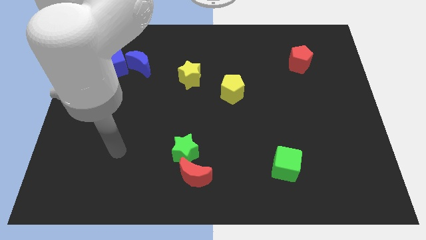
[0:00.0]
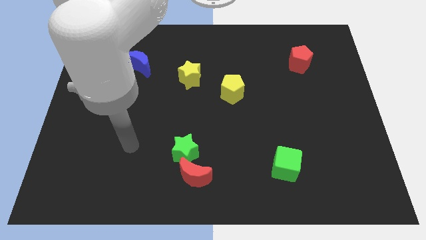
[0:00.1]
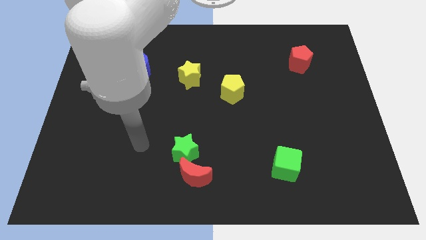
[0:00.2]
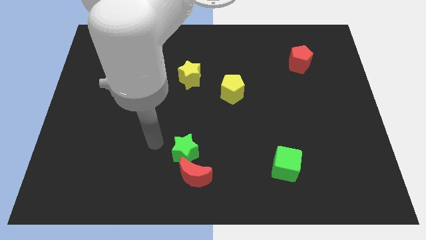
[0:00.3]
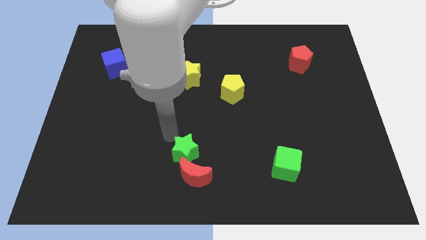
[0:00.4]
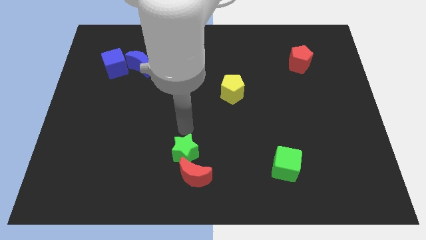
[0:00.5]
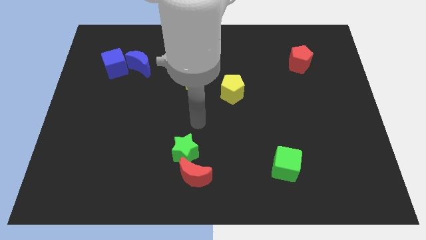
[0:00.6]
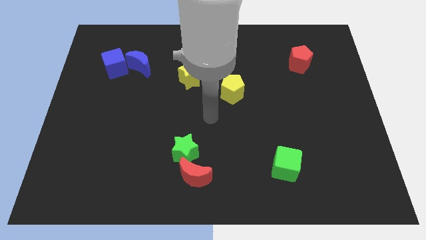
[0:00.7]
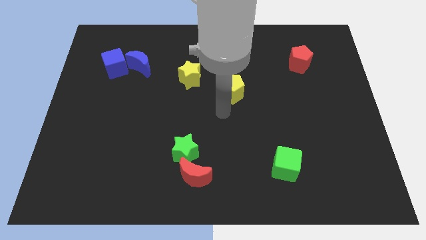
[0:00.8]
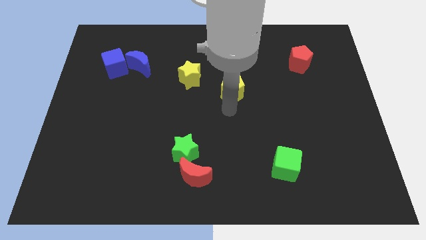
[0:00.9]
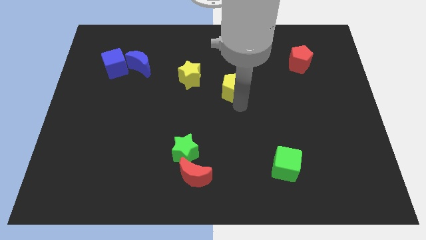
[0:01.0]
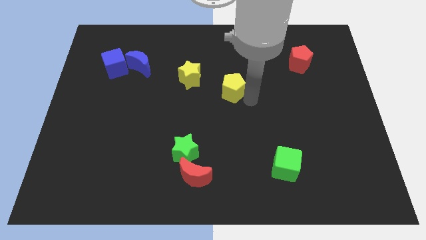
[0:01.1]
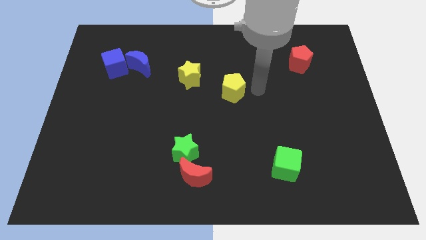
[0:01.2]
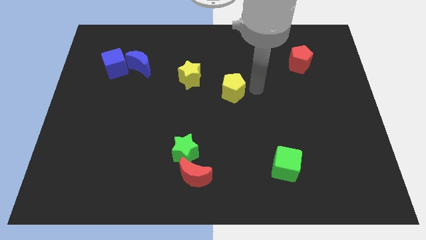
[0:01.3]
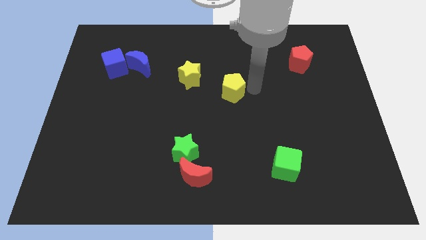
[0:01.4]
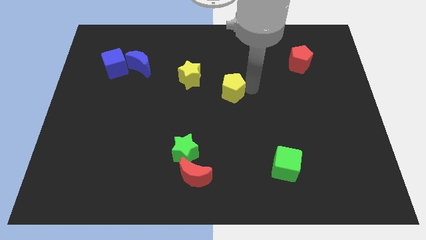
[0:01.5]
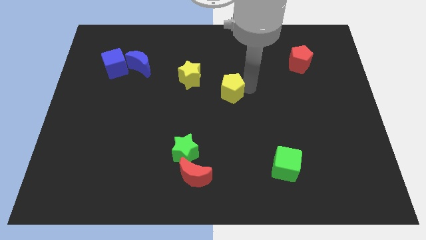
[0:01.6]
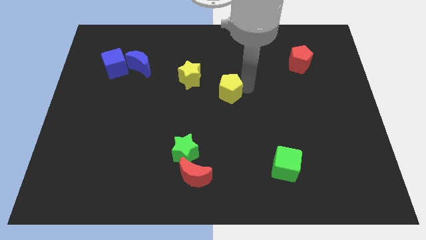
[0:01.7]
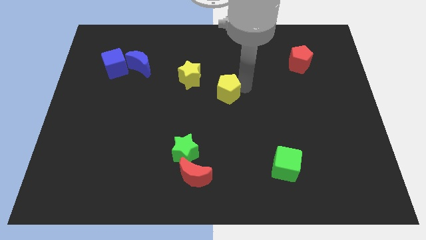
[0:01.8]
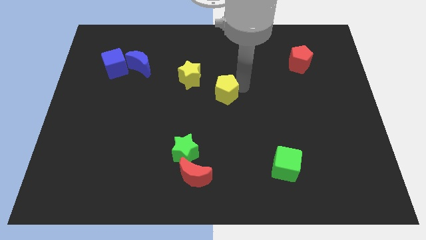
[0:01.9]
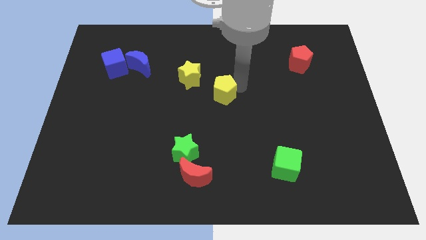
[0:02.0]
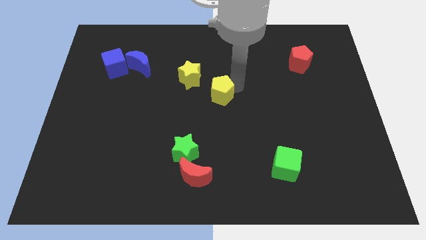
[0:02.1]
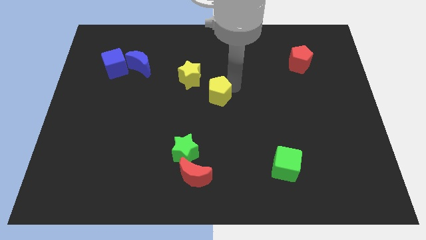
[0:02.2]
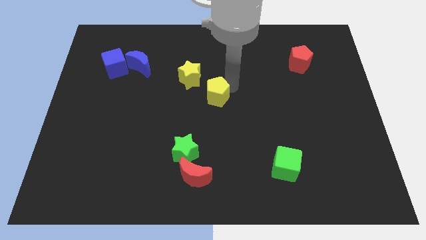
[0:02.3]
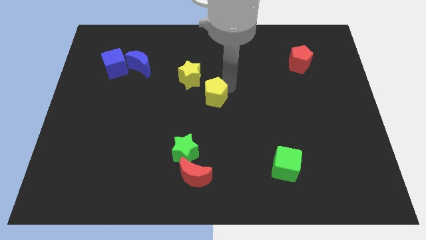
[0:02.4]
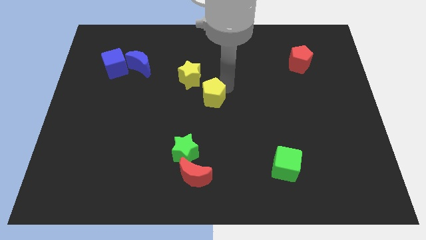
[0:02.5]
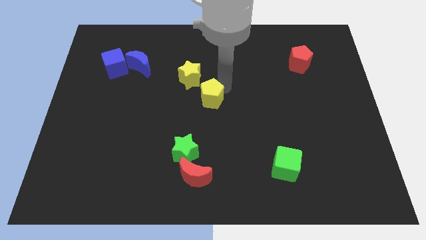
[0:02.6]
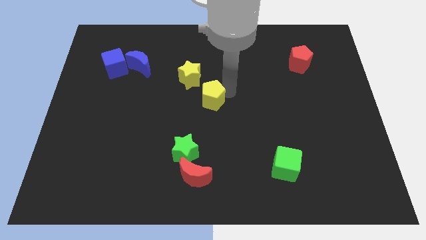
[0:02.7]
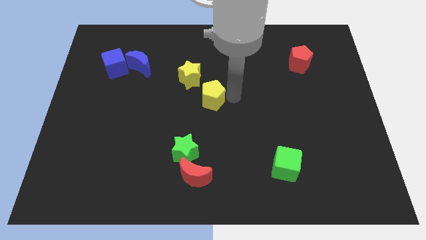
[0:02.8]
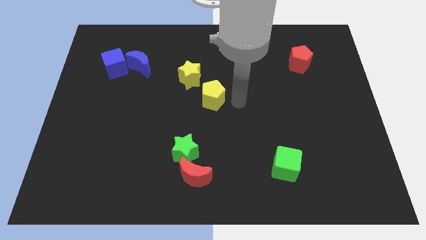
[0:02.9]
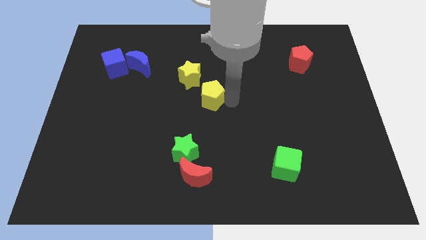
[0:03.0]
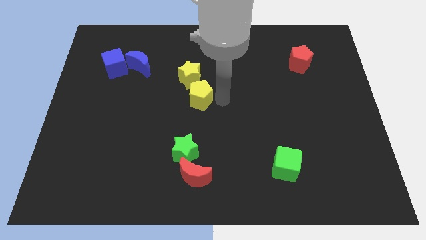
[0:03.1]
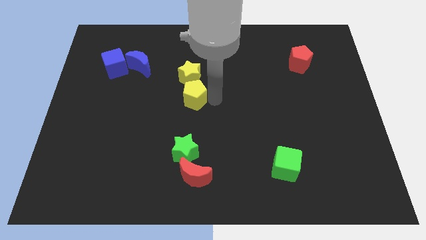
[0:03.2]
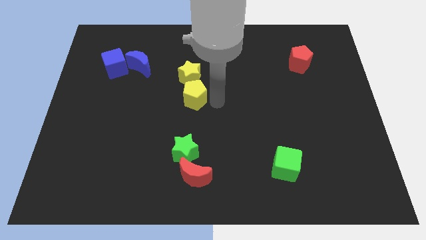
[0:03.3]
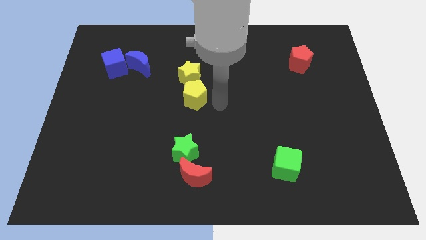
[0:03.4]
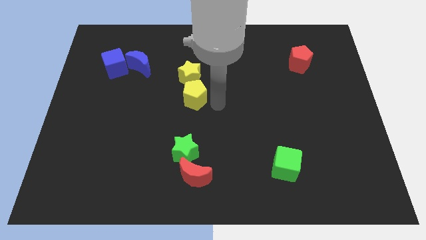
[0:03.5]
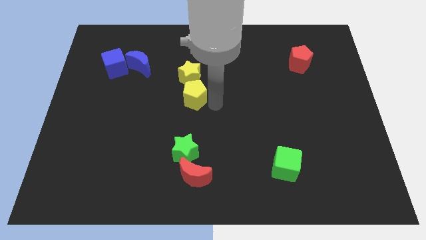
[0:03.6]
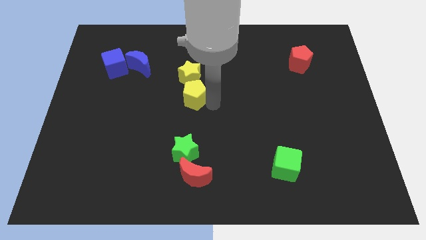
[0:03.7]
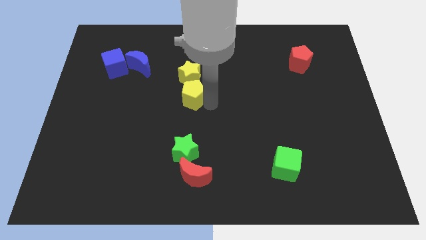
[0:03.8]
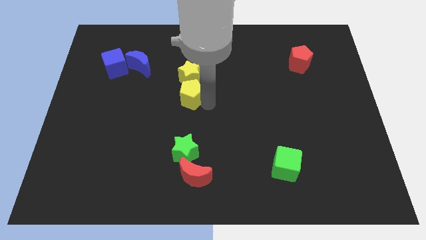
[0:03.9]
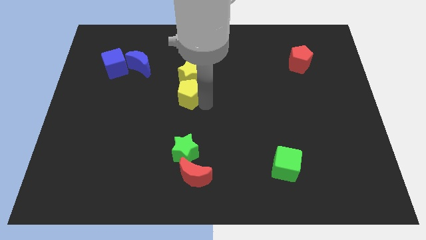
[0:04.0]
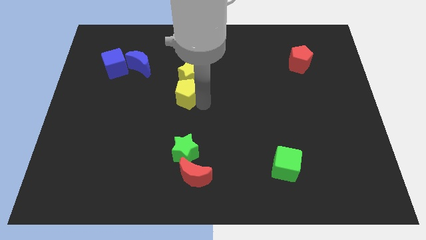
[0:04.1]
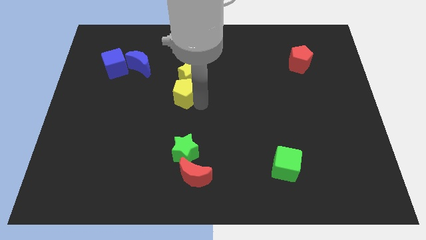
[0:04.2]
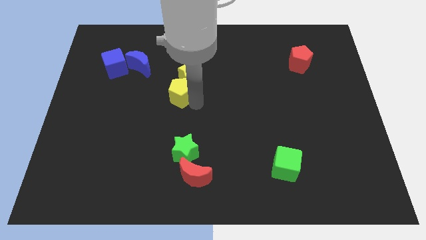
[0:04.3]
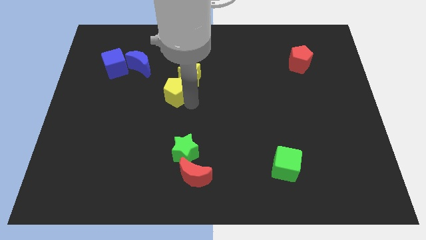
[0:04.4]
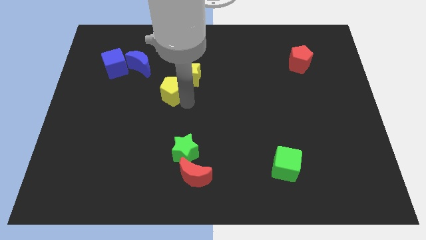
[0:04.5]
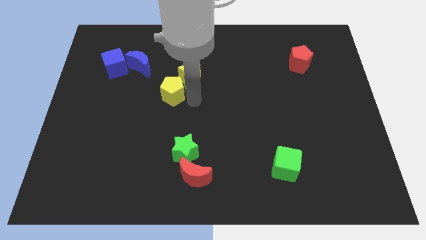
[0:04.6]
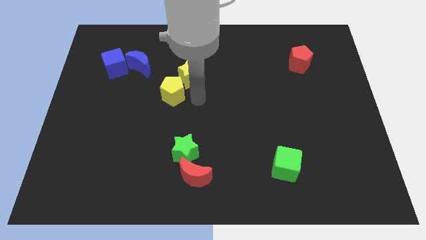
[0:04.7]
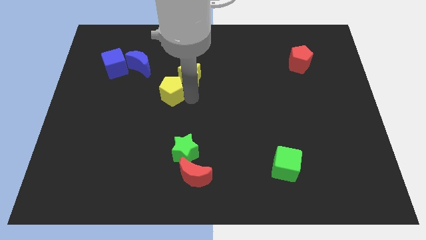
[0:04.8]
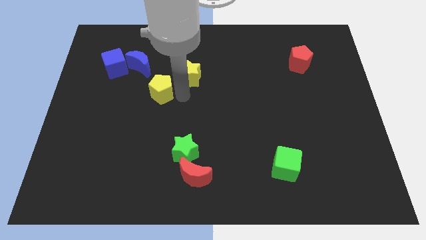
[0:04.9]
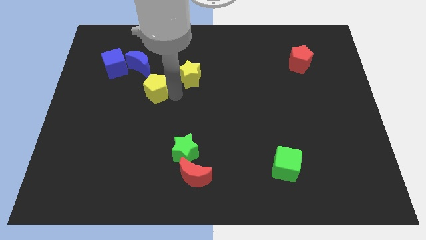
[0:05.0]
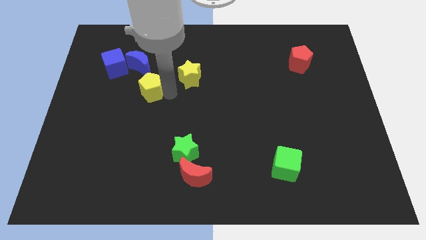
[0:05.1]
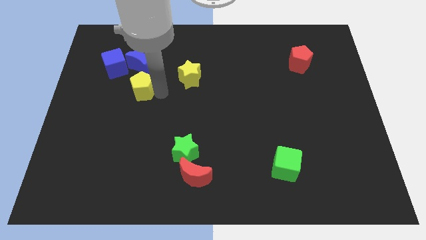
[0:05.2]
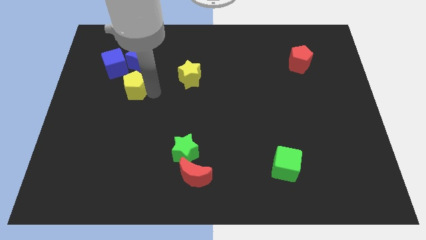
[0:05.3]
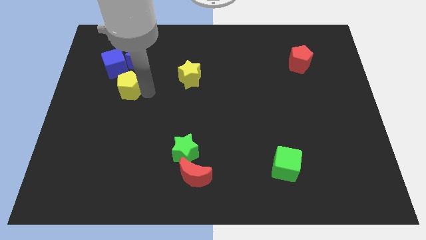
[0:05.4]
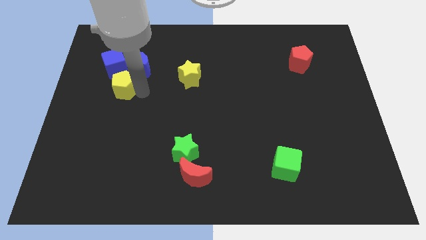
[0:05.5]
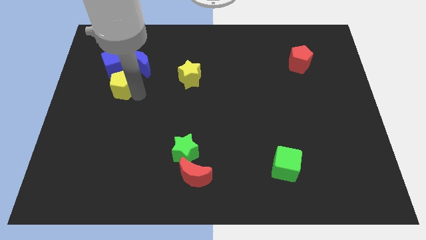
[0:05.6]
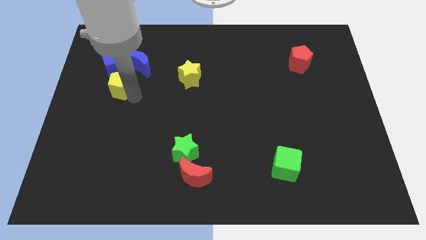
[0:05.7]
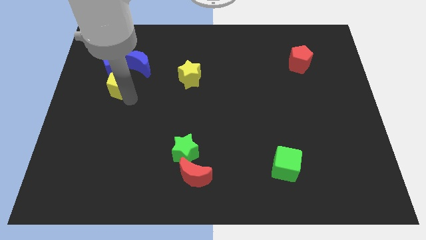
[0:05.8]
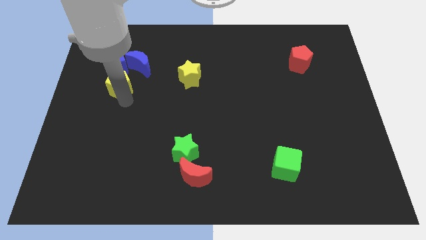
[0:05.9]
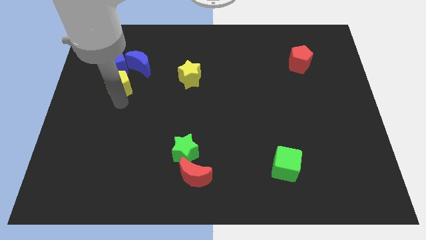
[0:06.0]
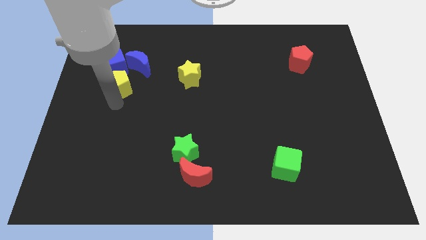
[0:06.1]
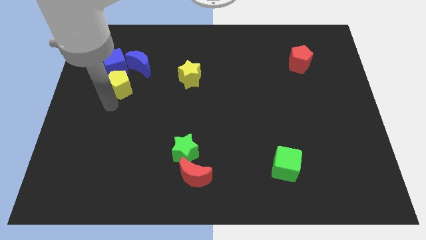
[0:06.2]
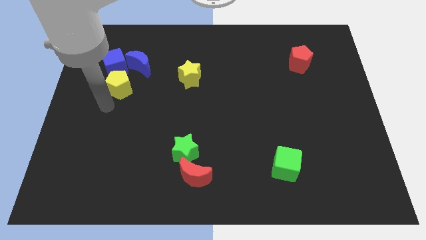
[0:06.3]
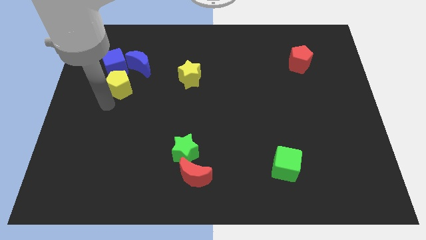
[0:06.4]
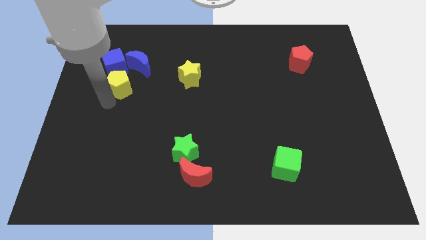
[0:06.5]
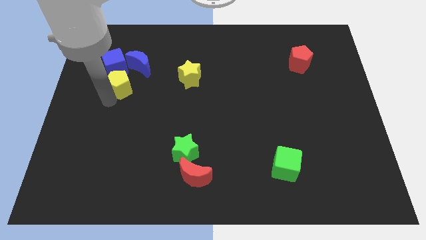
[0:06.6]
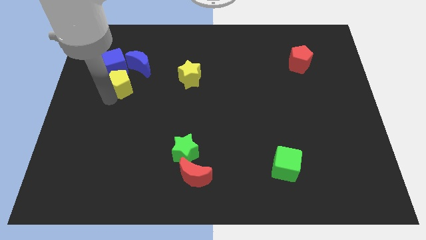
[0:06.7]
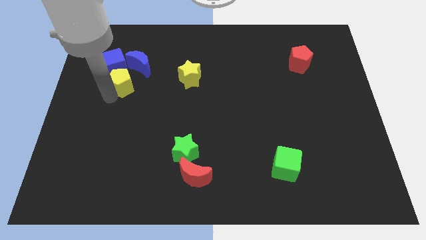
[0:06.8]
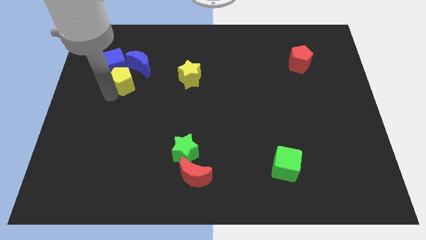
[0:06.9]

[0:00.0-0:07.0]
put the yellow pentagon next to the blue cube
